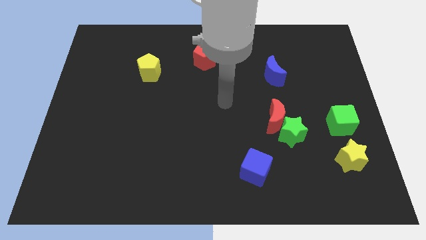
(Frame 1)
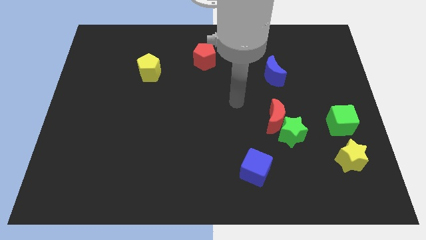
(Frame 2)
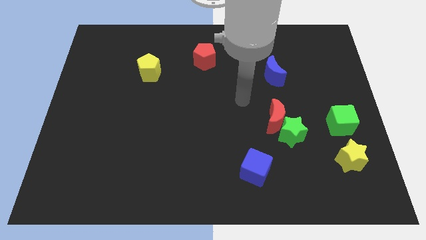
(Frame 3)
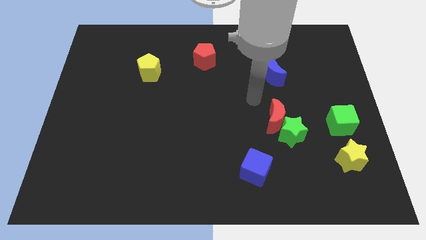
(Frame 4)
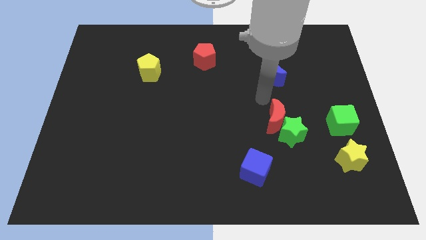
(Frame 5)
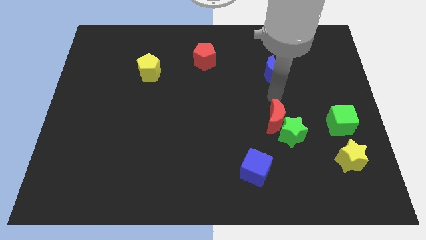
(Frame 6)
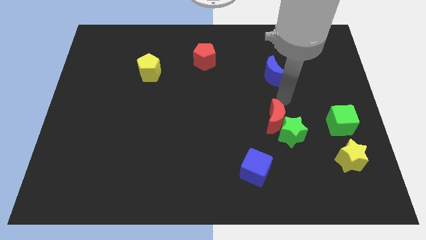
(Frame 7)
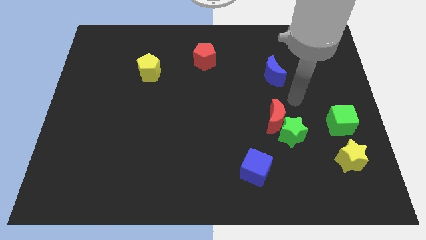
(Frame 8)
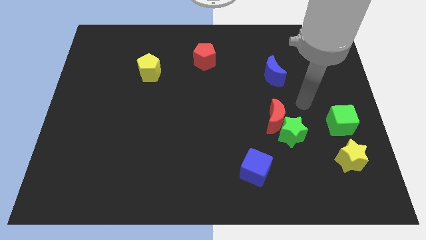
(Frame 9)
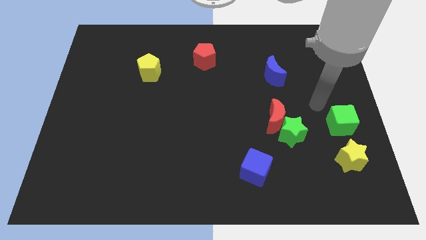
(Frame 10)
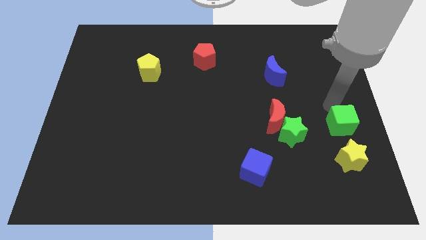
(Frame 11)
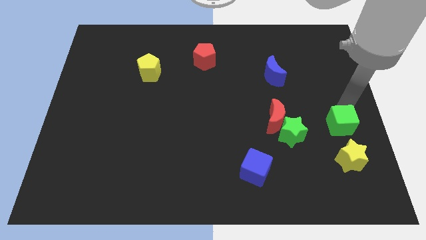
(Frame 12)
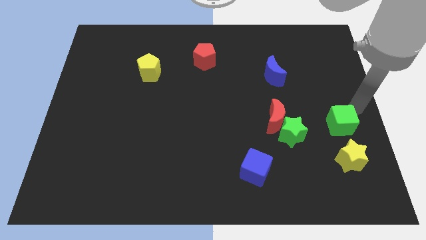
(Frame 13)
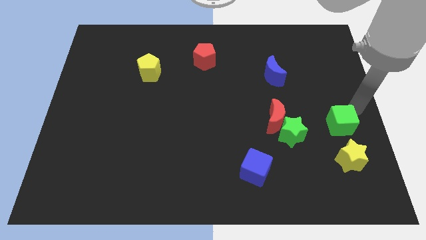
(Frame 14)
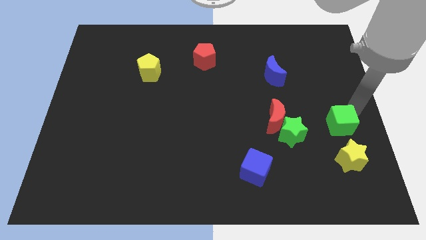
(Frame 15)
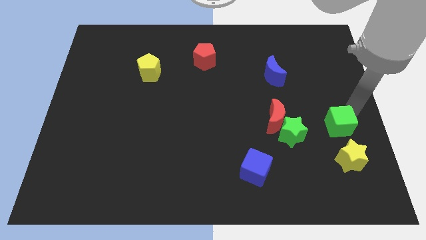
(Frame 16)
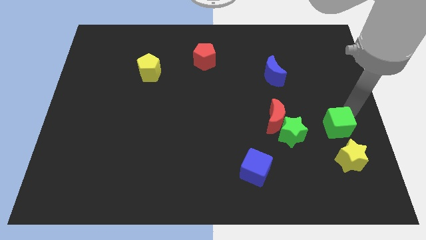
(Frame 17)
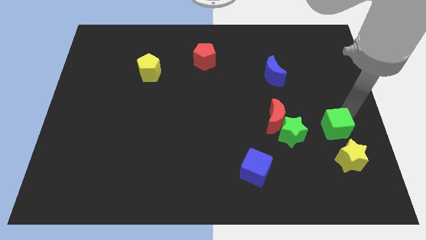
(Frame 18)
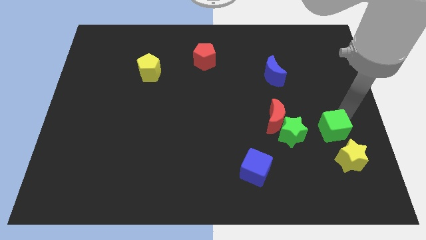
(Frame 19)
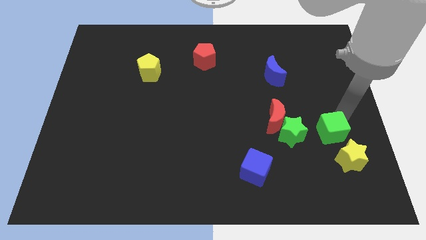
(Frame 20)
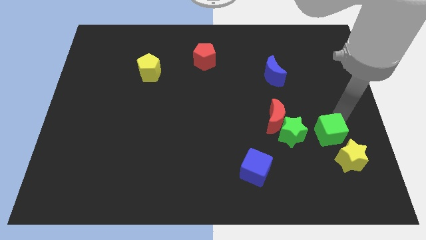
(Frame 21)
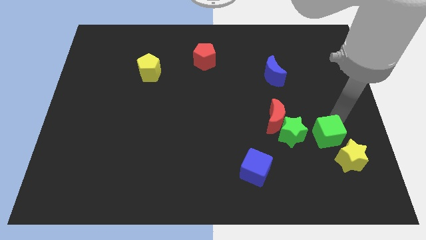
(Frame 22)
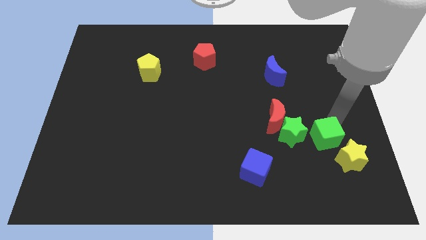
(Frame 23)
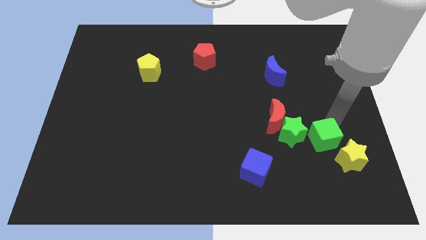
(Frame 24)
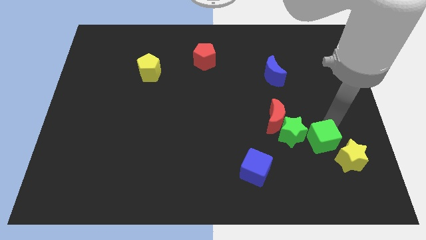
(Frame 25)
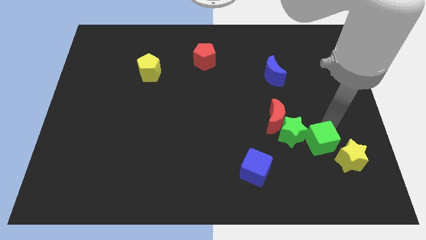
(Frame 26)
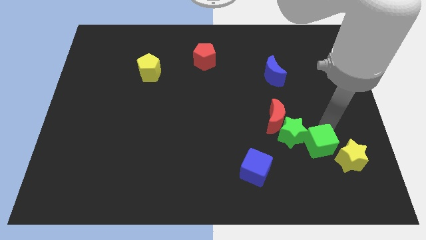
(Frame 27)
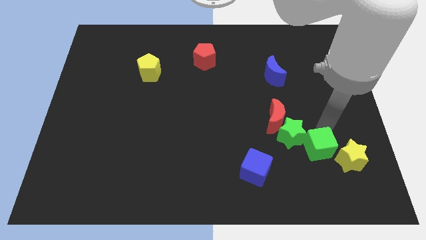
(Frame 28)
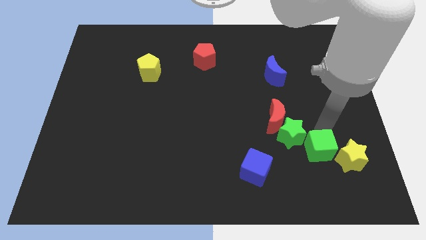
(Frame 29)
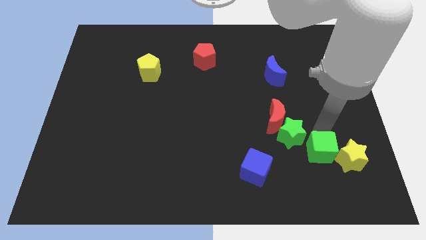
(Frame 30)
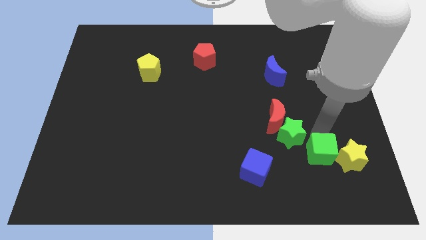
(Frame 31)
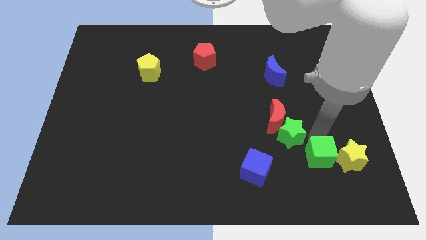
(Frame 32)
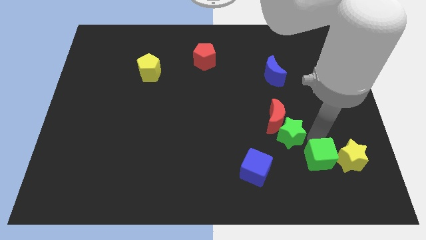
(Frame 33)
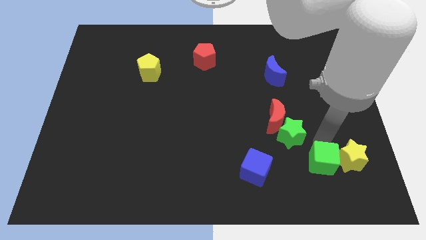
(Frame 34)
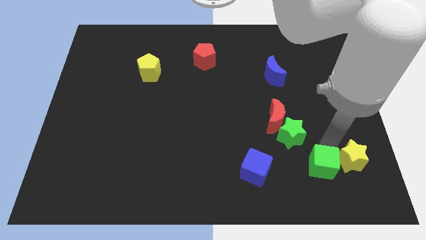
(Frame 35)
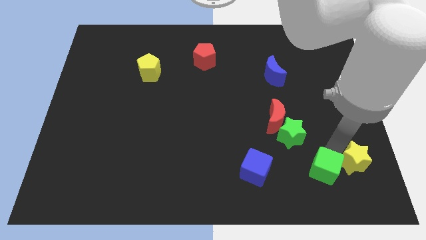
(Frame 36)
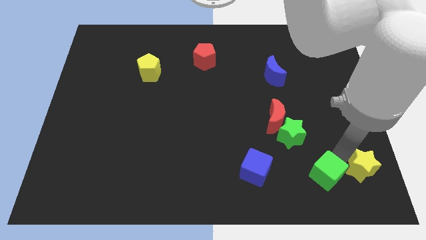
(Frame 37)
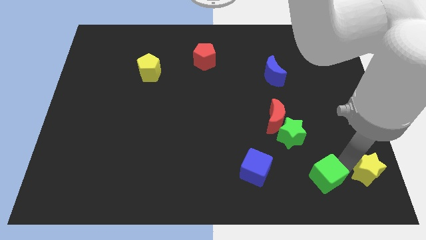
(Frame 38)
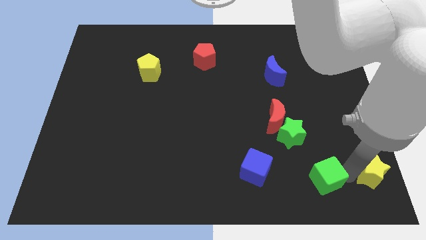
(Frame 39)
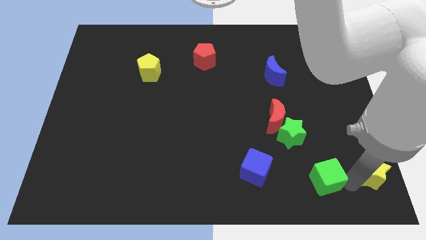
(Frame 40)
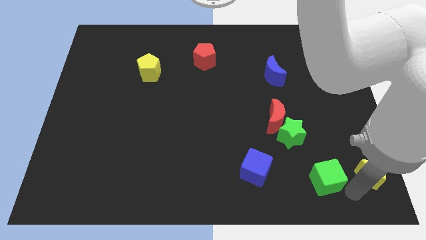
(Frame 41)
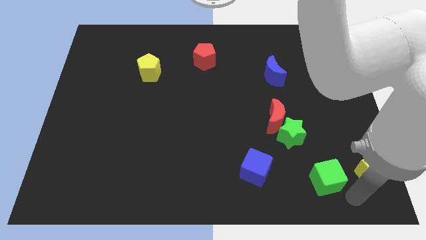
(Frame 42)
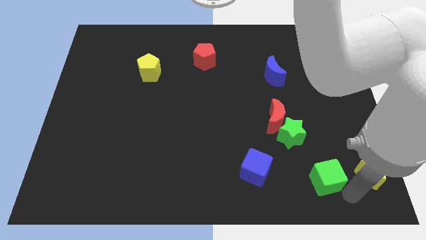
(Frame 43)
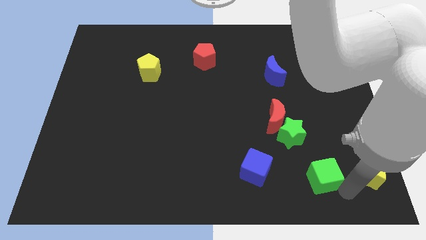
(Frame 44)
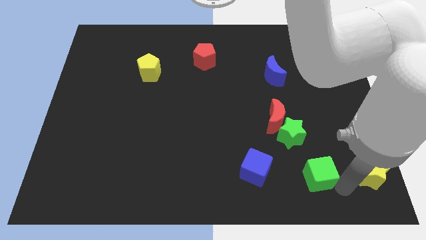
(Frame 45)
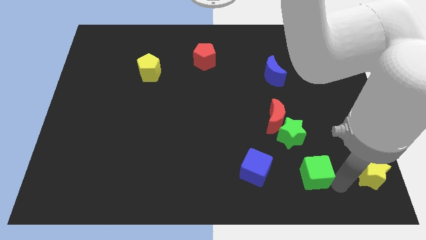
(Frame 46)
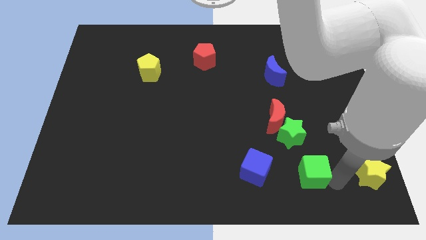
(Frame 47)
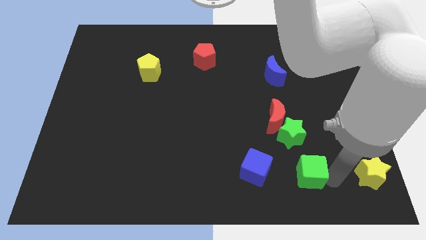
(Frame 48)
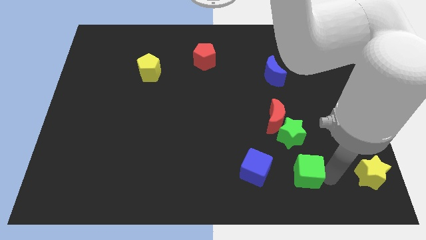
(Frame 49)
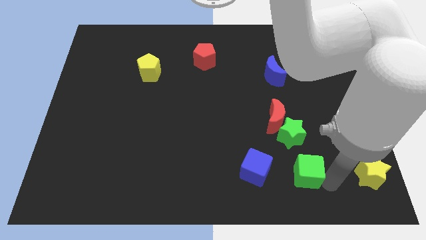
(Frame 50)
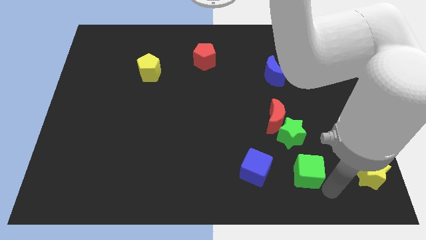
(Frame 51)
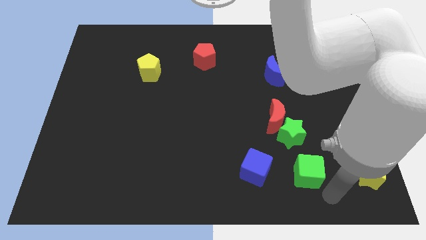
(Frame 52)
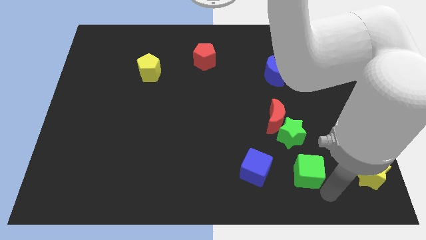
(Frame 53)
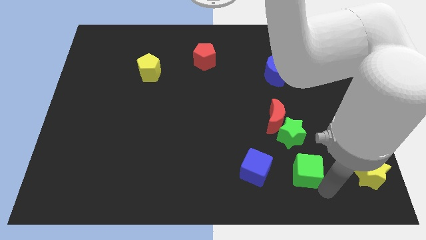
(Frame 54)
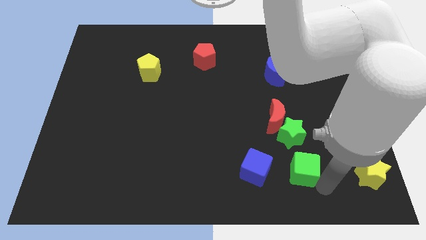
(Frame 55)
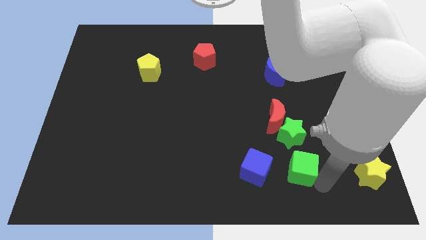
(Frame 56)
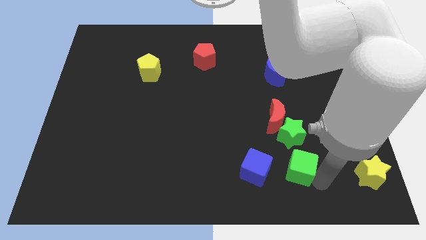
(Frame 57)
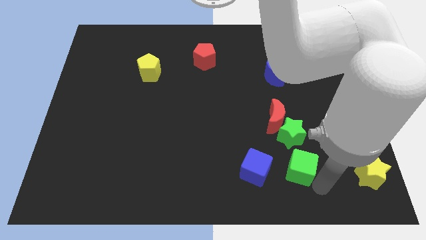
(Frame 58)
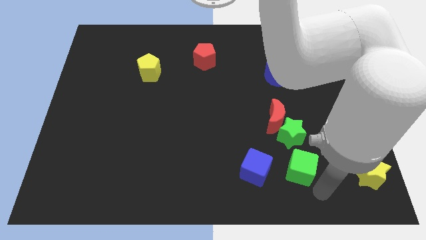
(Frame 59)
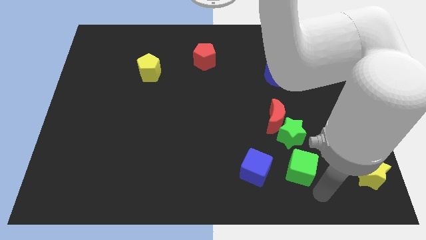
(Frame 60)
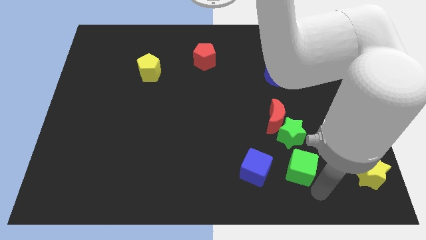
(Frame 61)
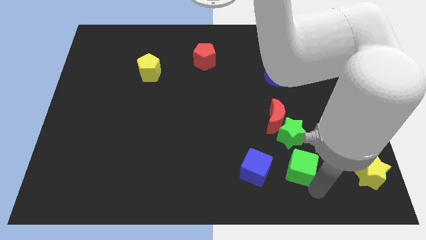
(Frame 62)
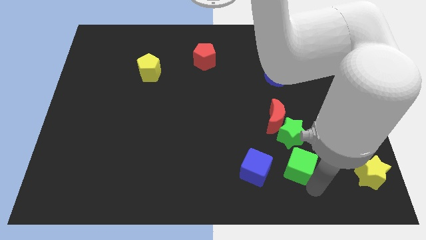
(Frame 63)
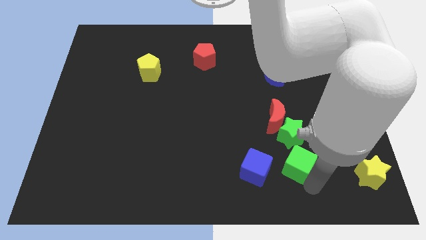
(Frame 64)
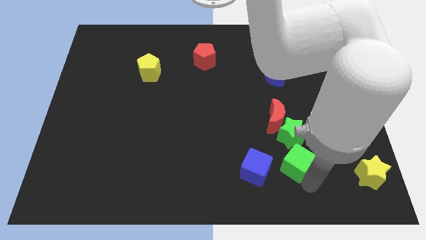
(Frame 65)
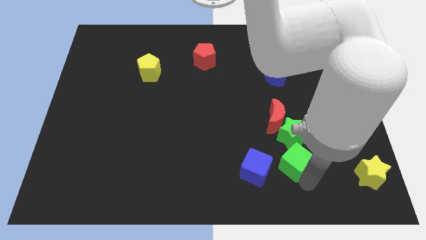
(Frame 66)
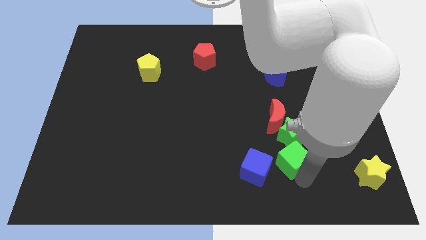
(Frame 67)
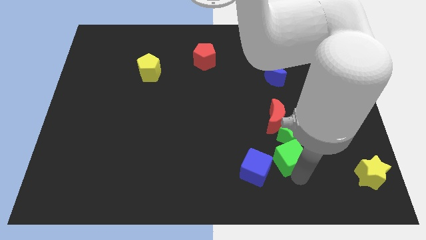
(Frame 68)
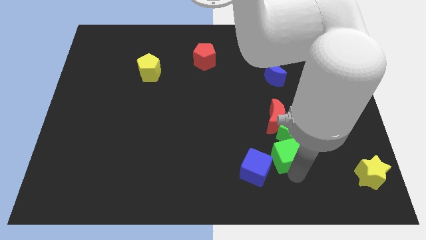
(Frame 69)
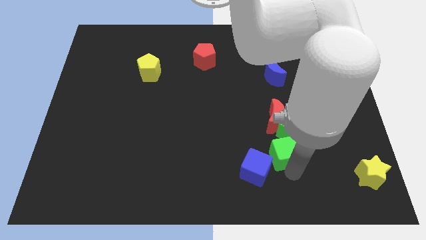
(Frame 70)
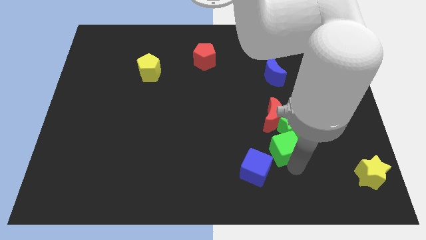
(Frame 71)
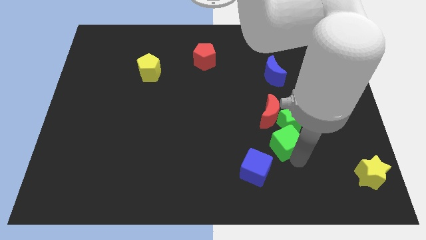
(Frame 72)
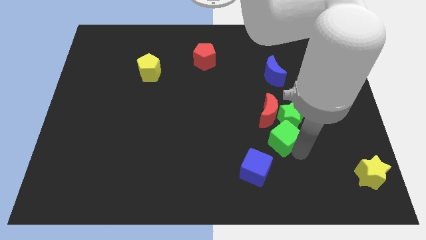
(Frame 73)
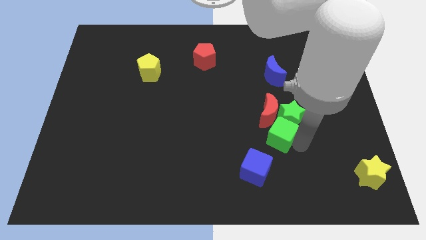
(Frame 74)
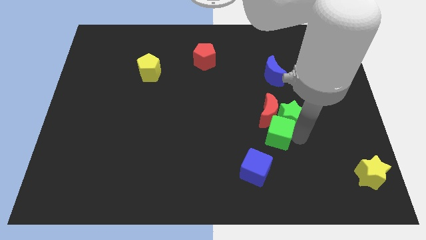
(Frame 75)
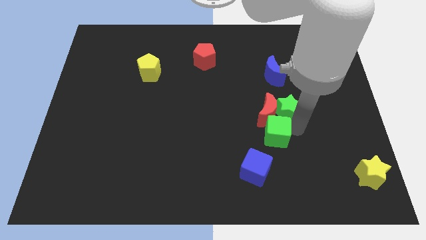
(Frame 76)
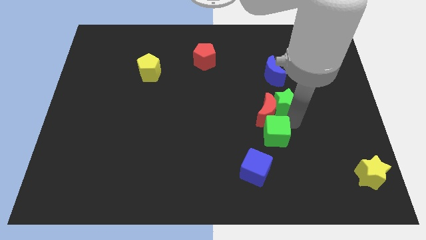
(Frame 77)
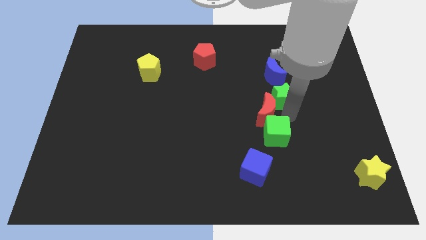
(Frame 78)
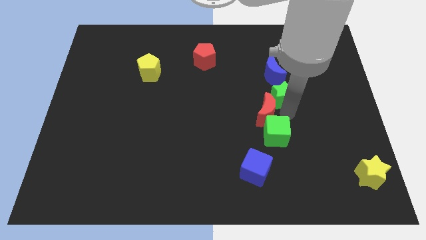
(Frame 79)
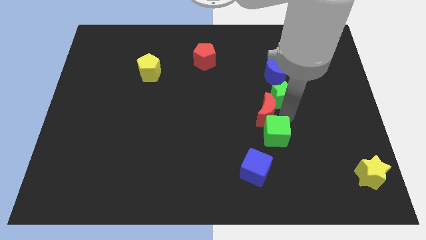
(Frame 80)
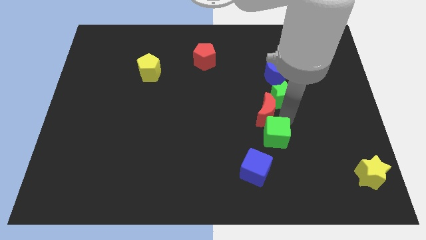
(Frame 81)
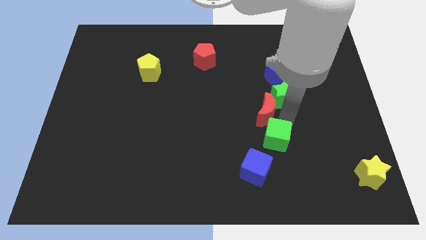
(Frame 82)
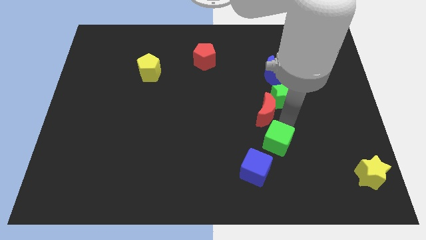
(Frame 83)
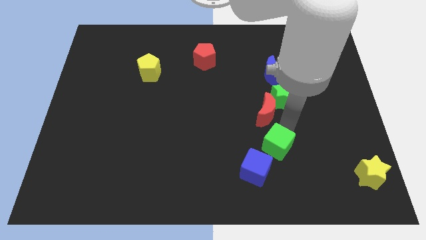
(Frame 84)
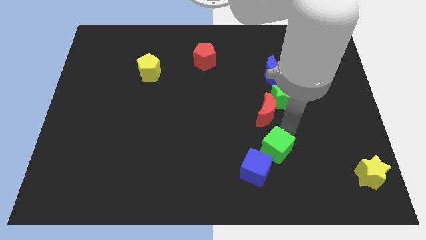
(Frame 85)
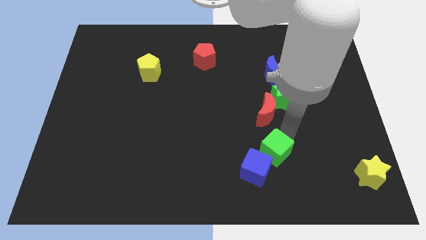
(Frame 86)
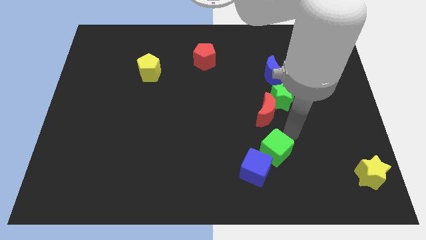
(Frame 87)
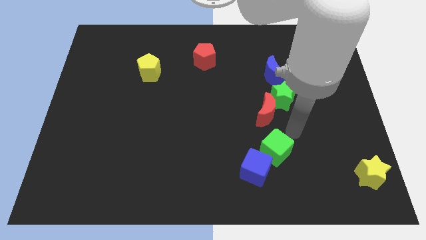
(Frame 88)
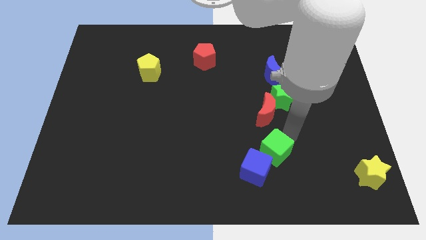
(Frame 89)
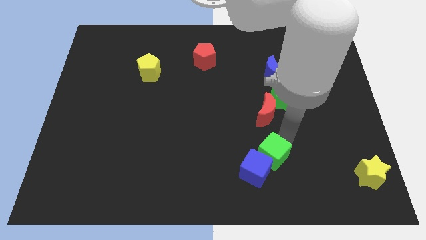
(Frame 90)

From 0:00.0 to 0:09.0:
move the green cube close to the blue cube
